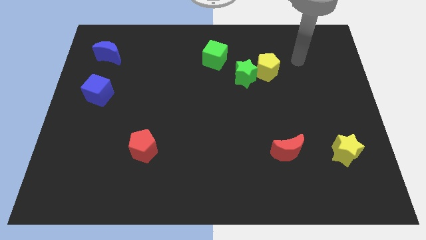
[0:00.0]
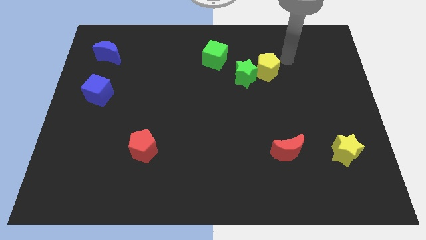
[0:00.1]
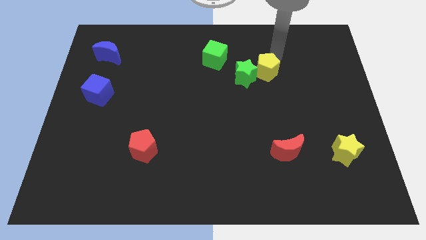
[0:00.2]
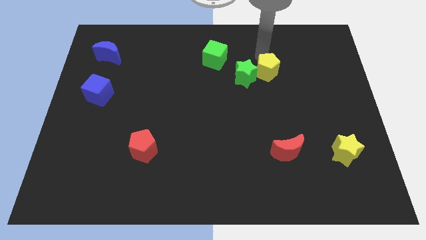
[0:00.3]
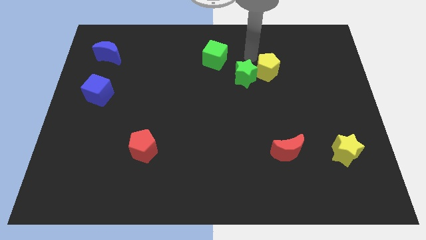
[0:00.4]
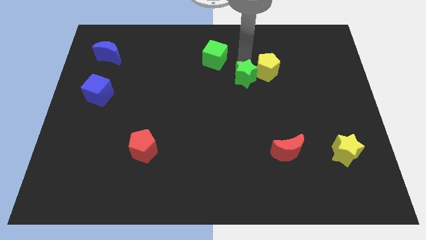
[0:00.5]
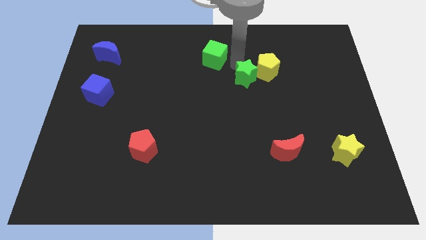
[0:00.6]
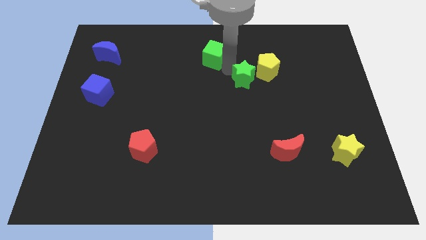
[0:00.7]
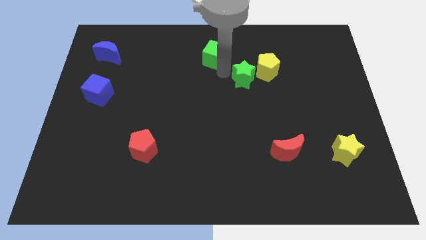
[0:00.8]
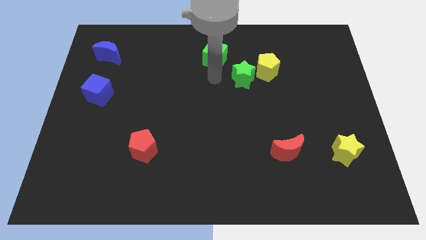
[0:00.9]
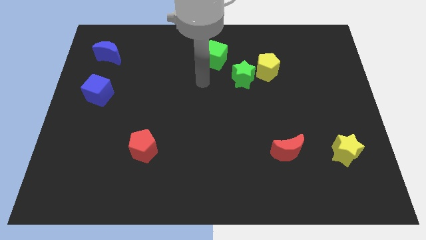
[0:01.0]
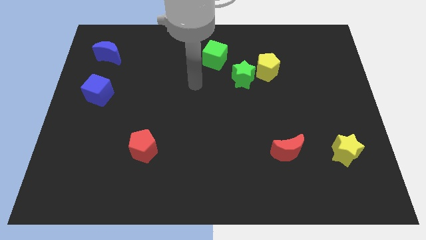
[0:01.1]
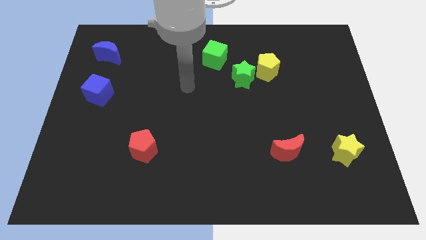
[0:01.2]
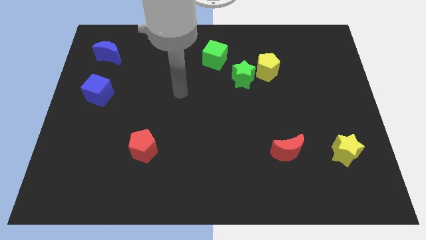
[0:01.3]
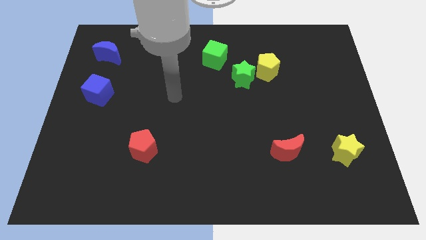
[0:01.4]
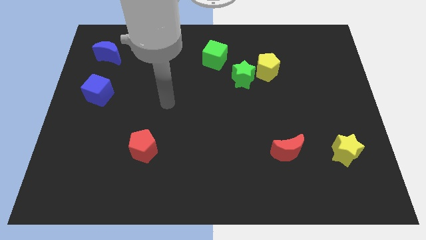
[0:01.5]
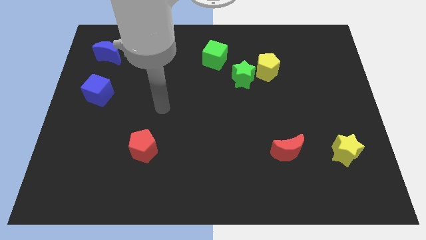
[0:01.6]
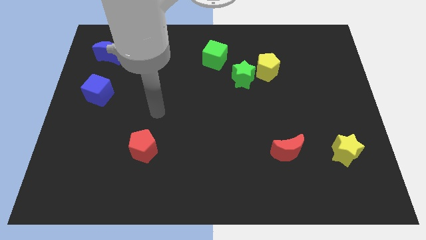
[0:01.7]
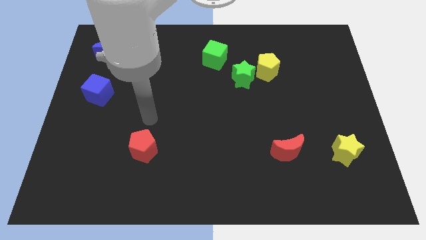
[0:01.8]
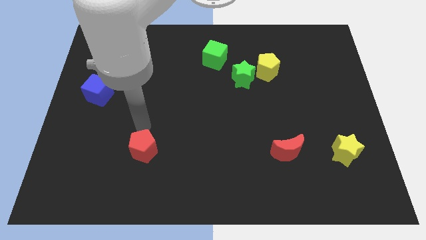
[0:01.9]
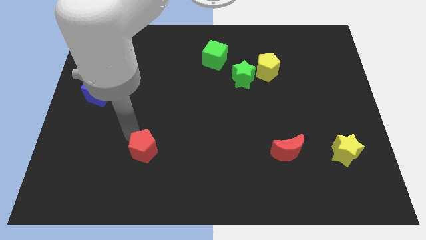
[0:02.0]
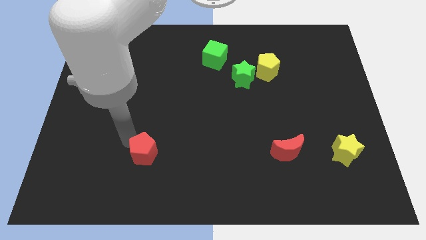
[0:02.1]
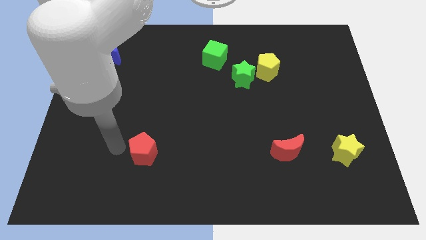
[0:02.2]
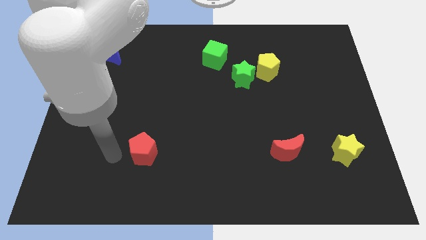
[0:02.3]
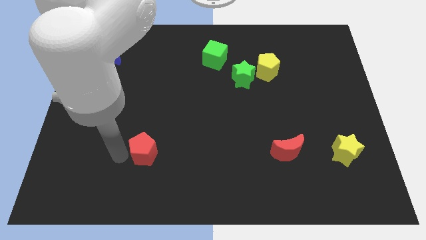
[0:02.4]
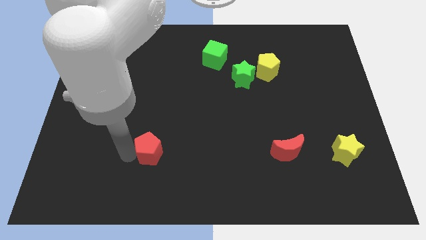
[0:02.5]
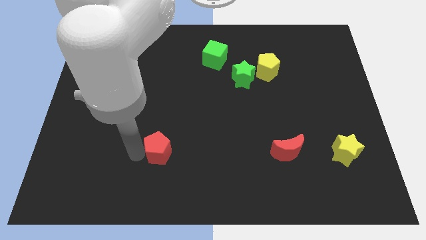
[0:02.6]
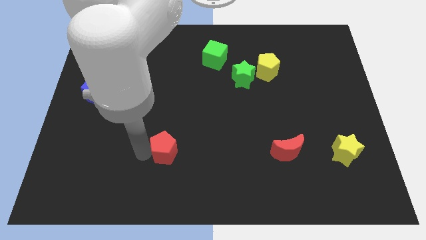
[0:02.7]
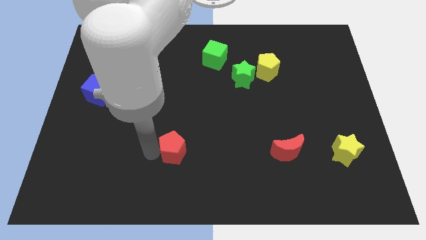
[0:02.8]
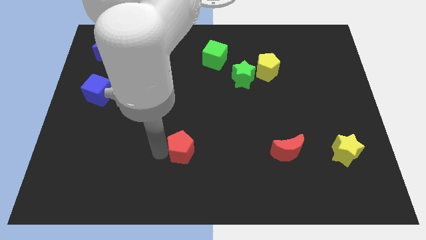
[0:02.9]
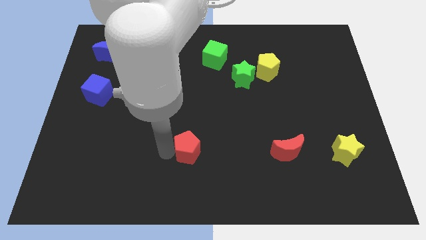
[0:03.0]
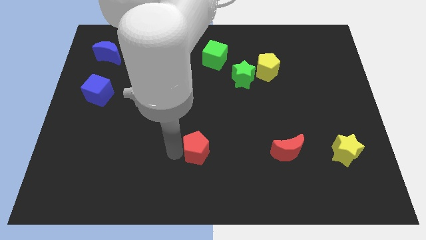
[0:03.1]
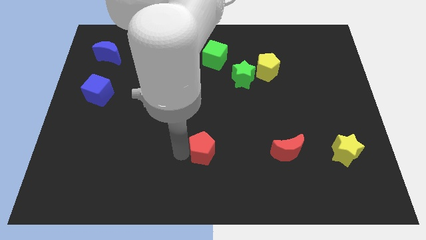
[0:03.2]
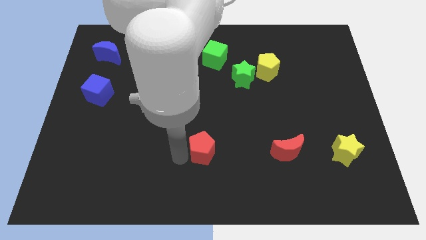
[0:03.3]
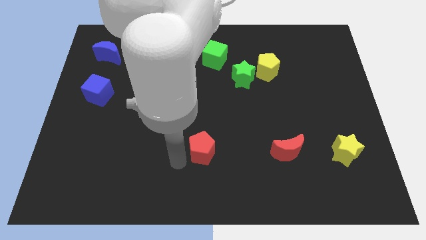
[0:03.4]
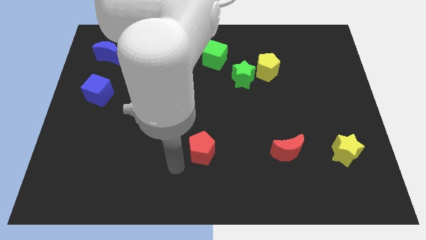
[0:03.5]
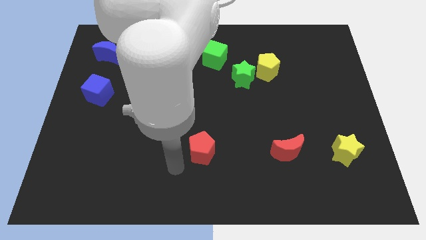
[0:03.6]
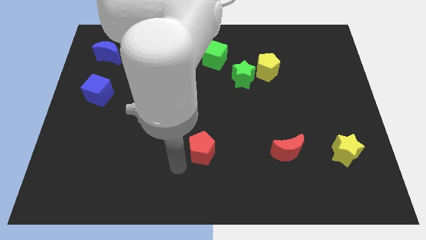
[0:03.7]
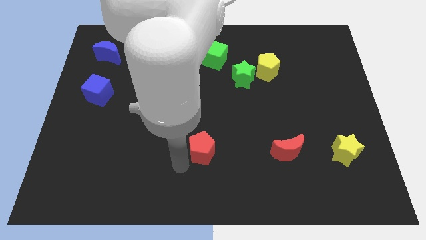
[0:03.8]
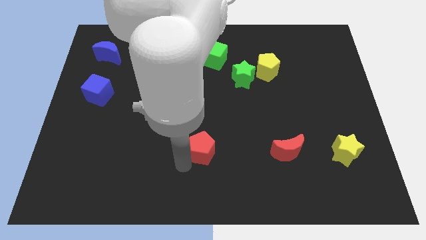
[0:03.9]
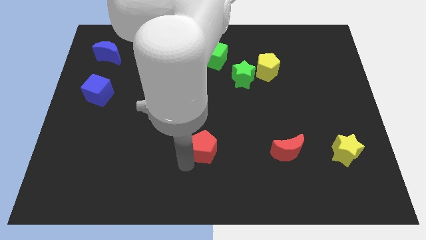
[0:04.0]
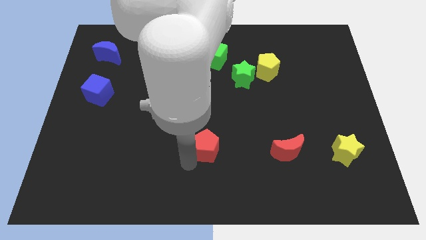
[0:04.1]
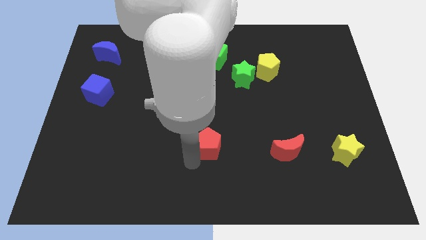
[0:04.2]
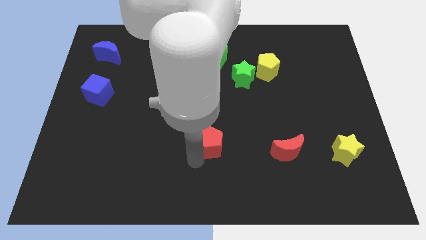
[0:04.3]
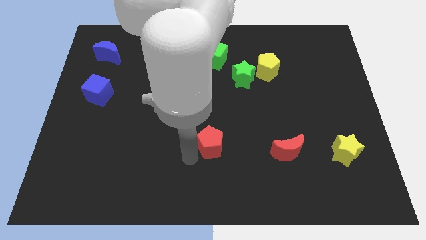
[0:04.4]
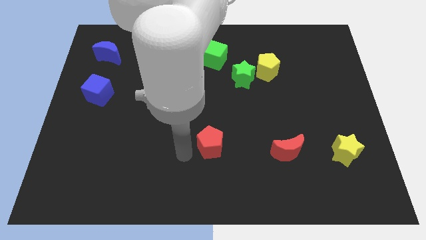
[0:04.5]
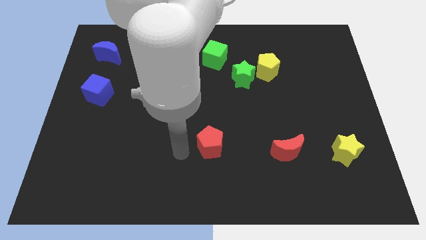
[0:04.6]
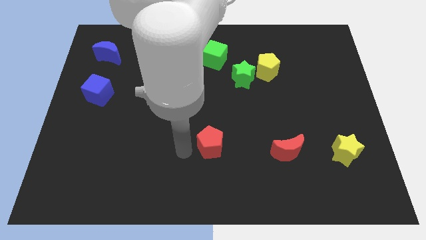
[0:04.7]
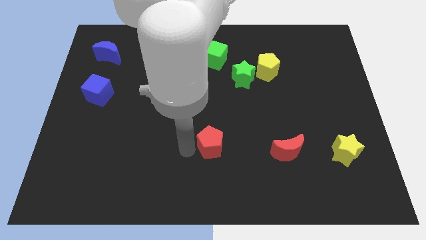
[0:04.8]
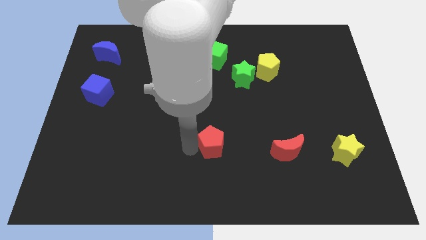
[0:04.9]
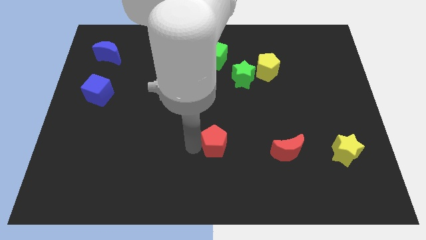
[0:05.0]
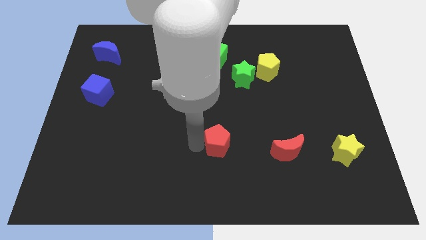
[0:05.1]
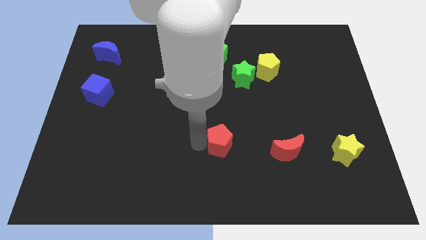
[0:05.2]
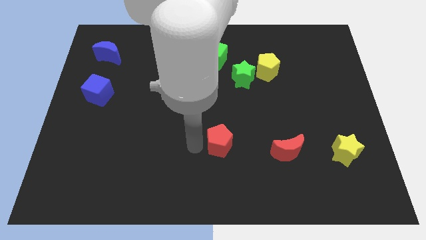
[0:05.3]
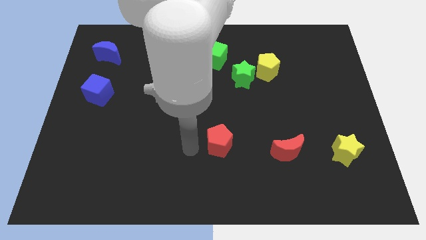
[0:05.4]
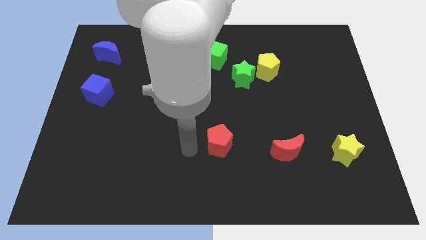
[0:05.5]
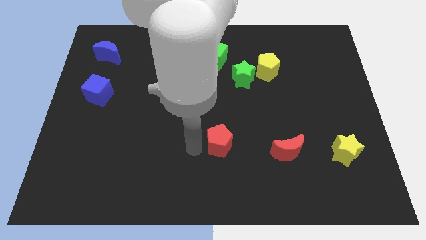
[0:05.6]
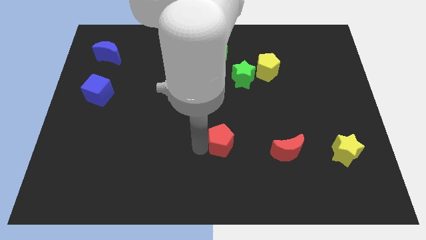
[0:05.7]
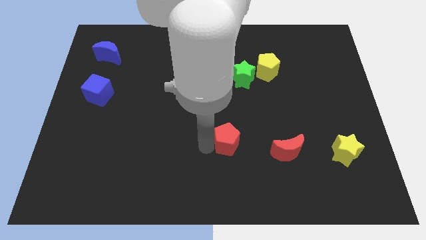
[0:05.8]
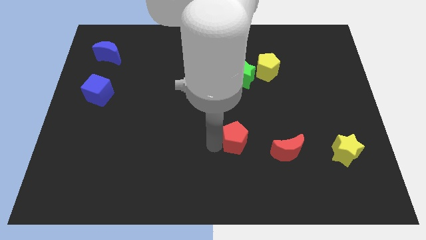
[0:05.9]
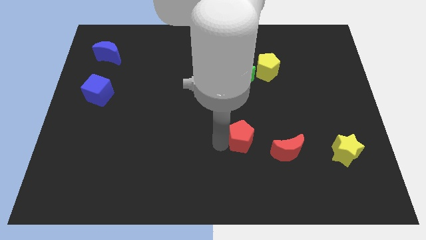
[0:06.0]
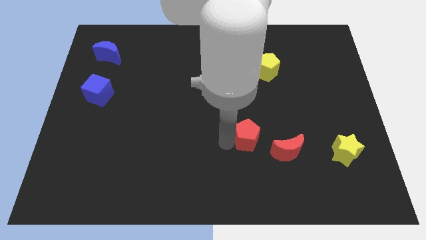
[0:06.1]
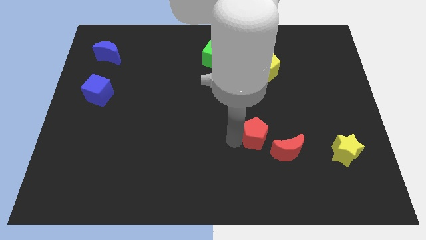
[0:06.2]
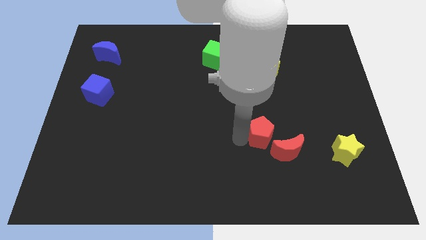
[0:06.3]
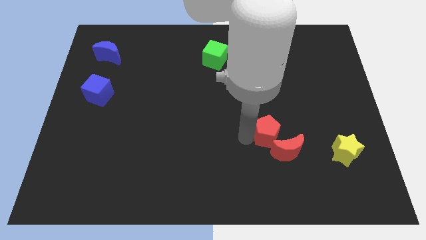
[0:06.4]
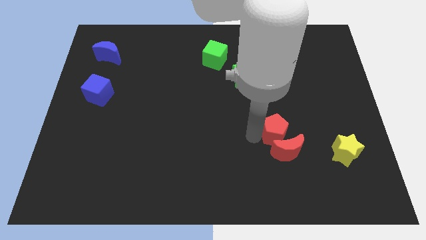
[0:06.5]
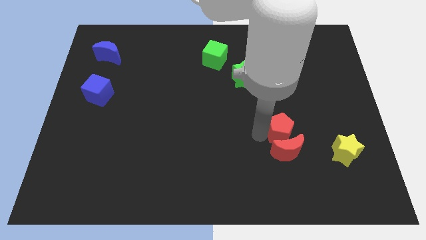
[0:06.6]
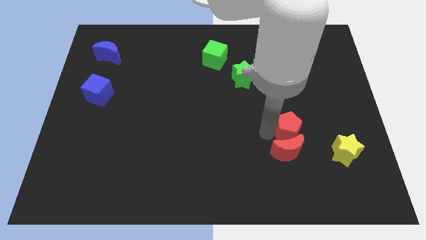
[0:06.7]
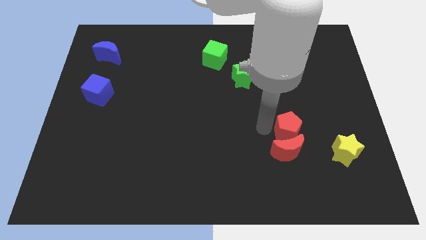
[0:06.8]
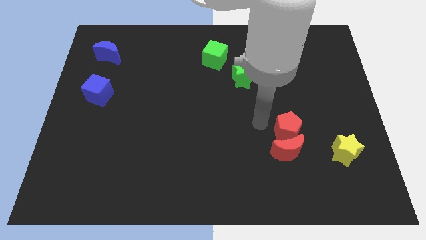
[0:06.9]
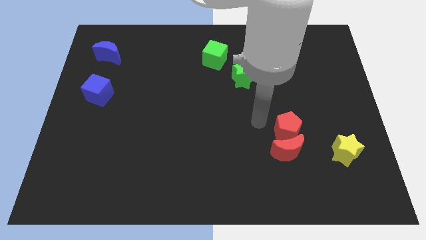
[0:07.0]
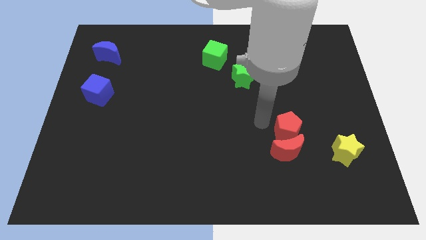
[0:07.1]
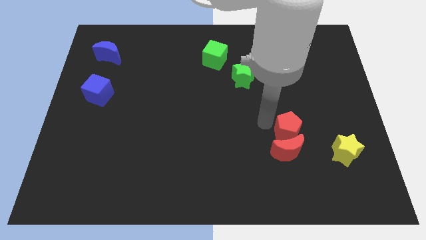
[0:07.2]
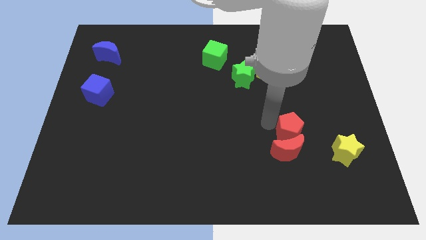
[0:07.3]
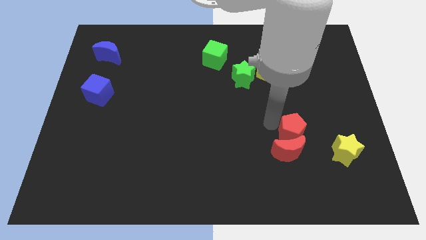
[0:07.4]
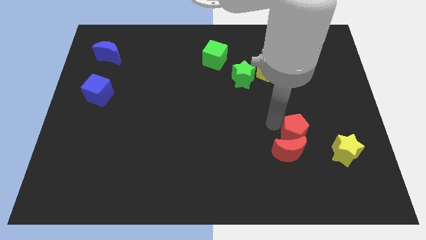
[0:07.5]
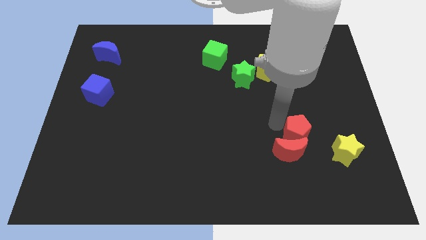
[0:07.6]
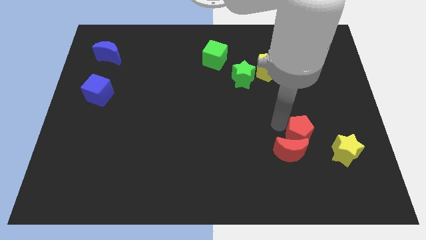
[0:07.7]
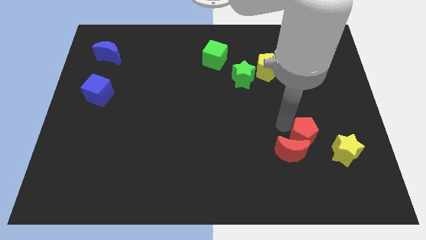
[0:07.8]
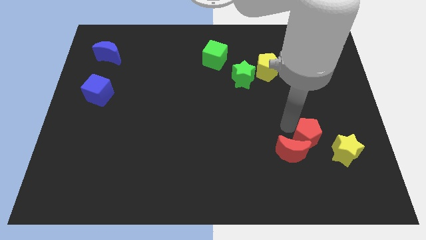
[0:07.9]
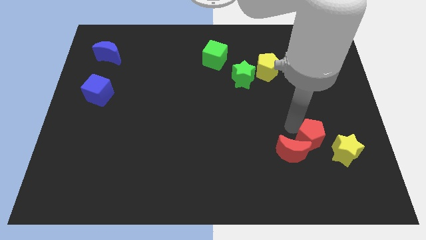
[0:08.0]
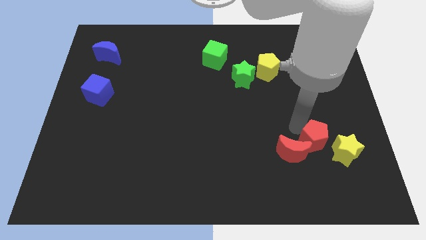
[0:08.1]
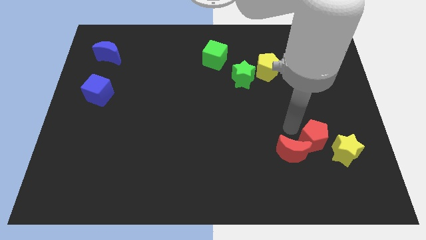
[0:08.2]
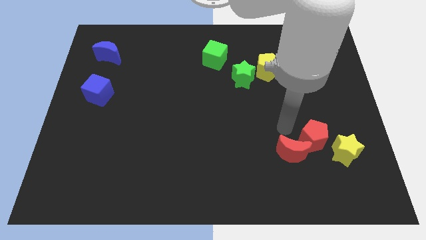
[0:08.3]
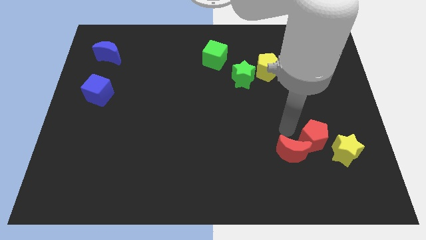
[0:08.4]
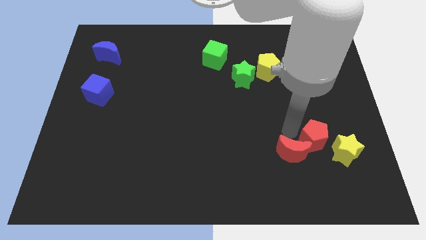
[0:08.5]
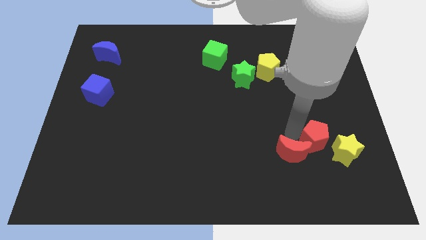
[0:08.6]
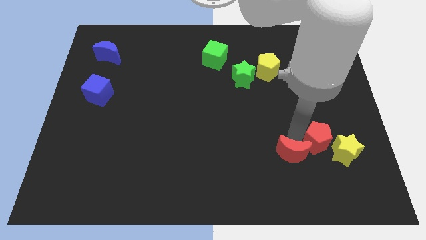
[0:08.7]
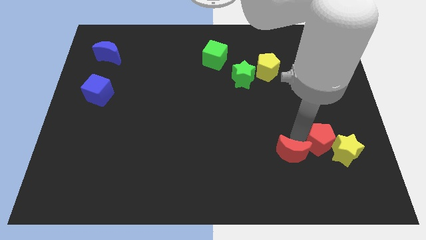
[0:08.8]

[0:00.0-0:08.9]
push the red pentagon close to the yellow star
